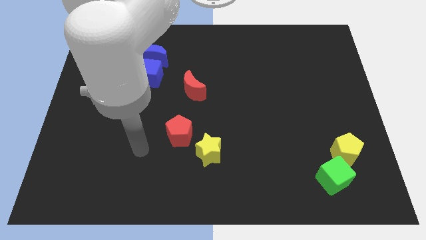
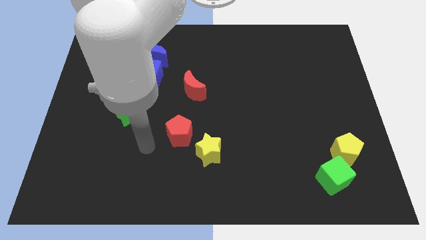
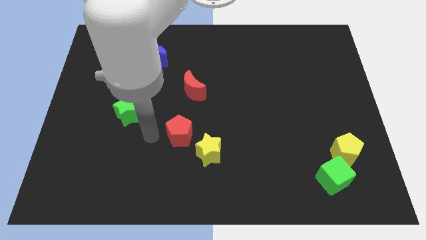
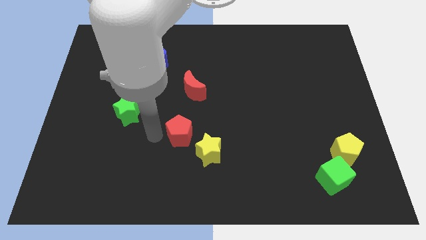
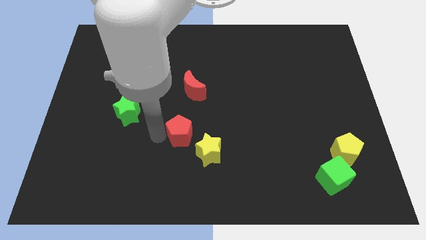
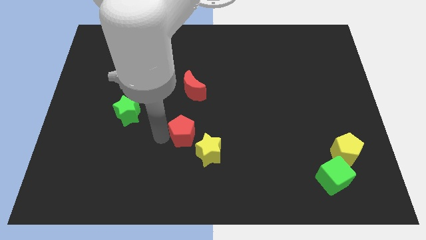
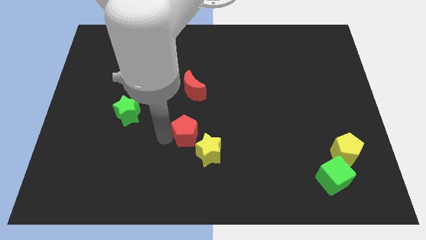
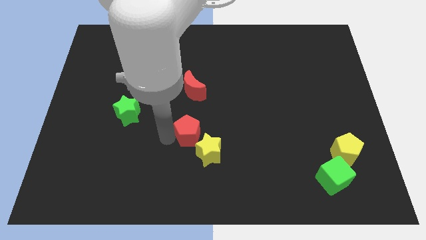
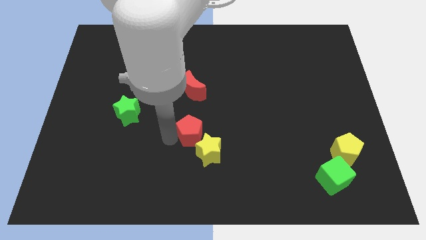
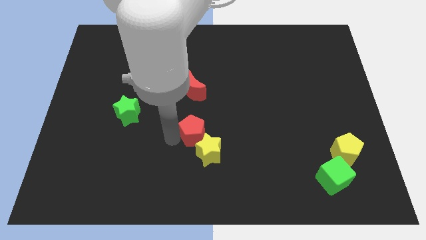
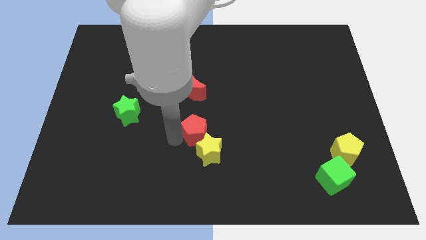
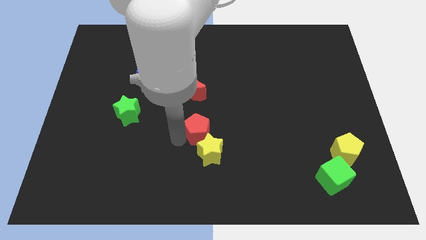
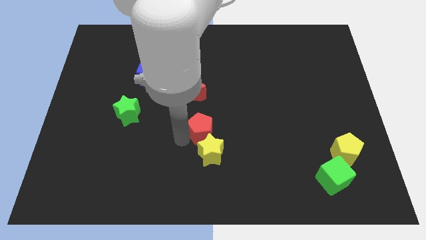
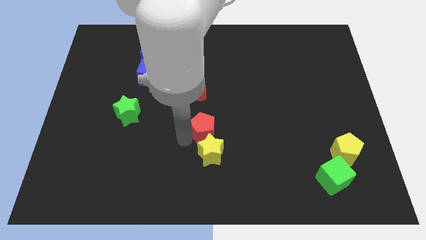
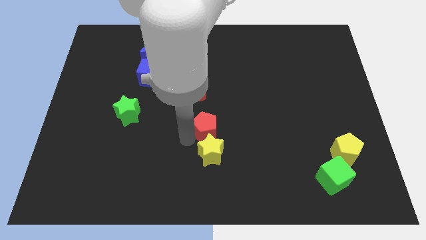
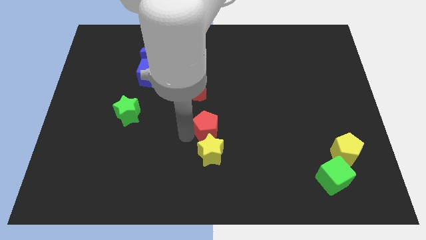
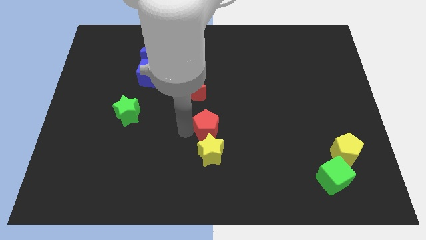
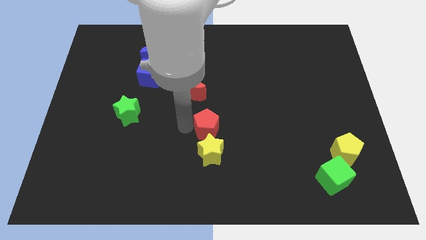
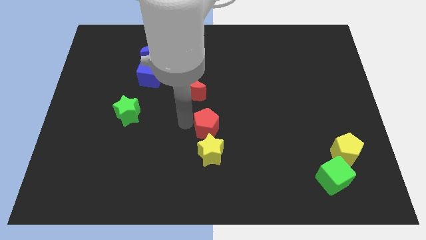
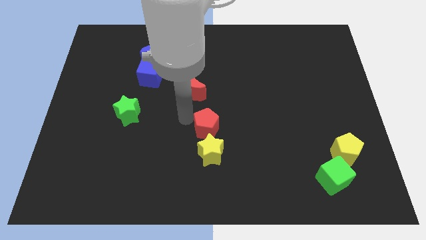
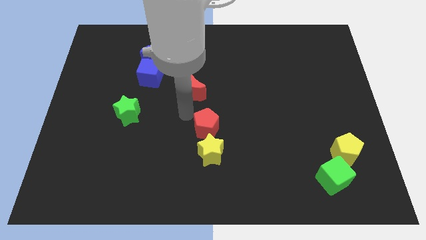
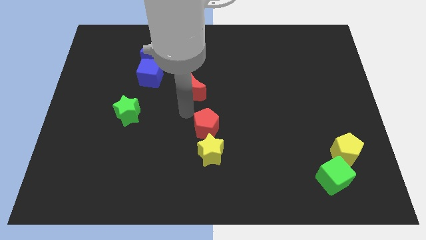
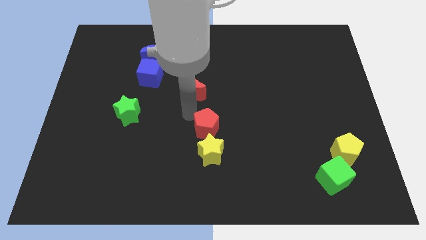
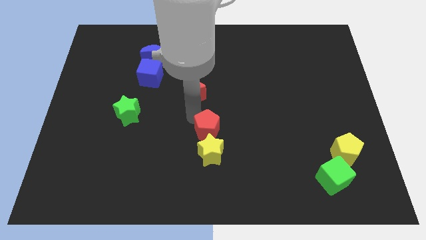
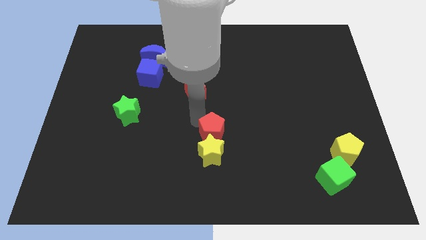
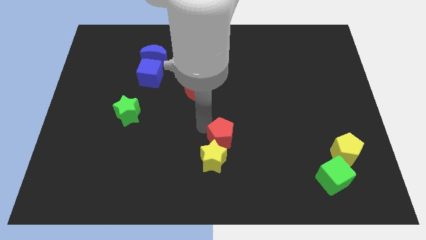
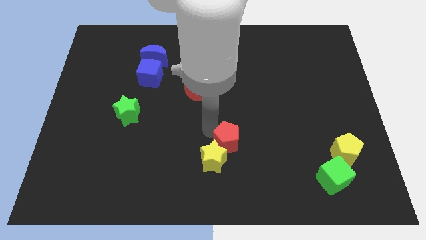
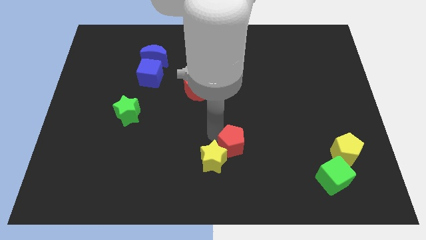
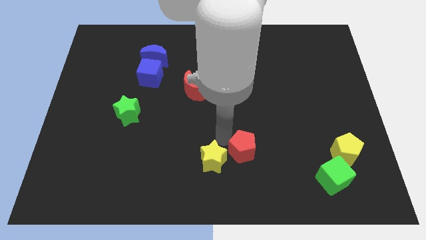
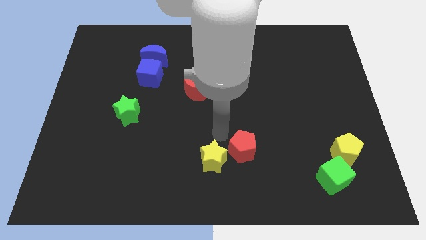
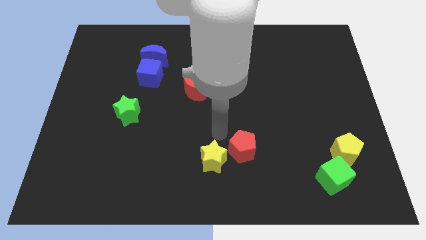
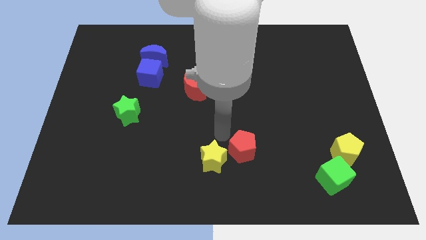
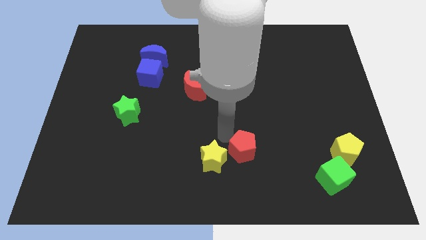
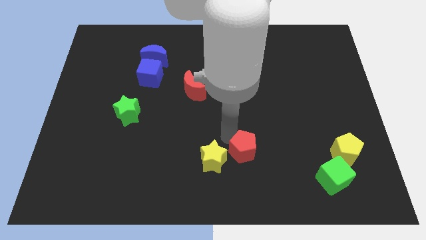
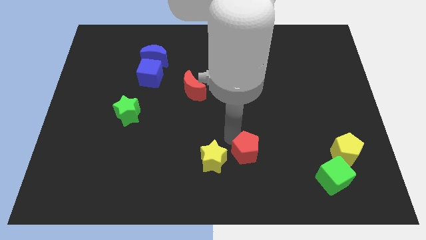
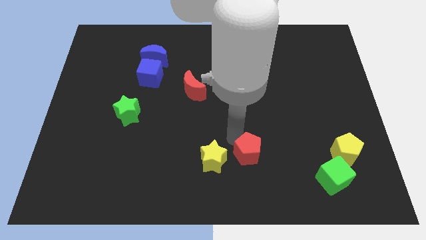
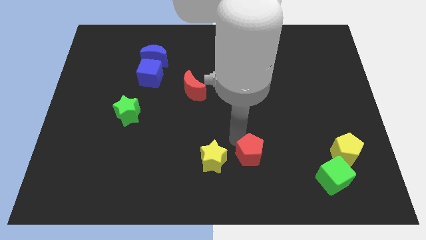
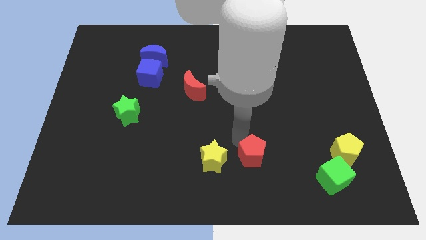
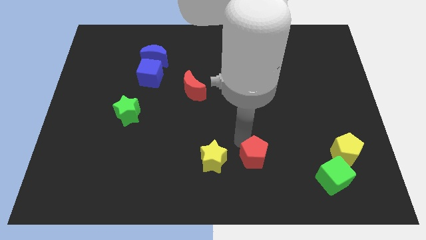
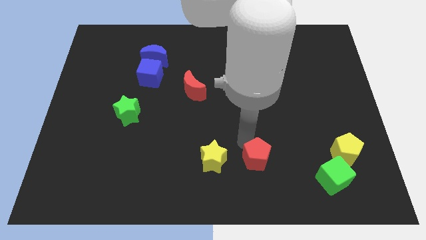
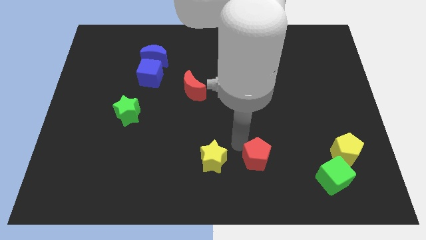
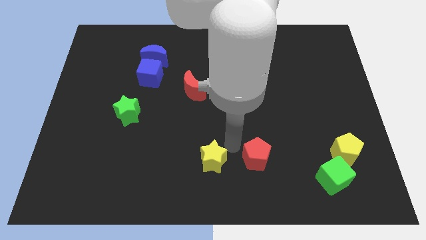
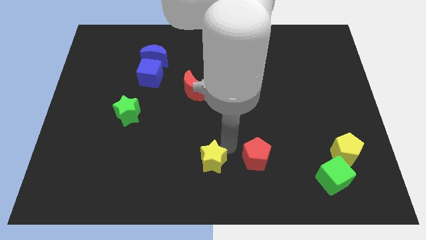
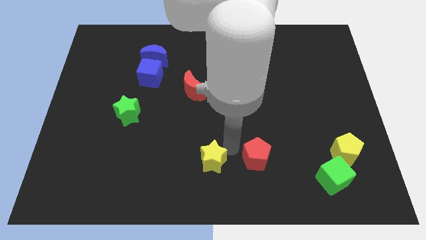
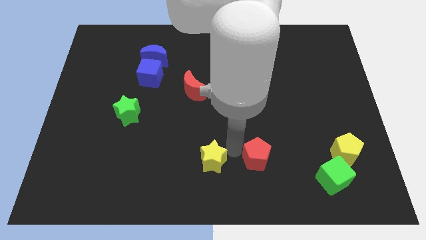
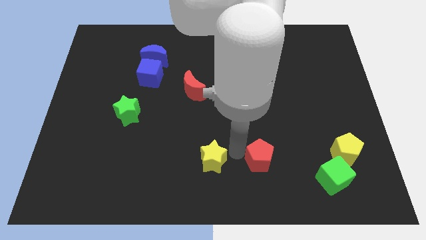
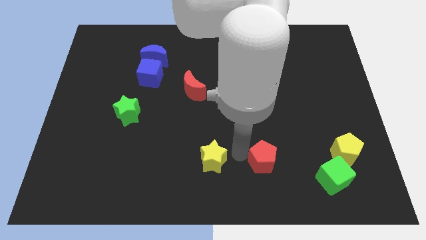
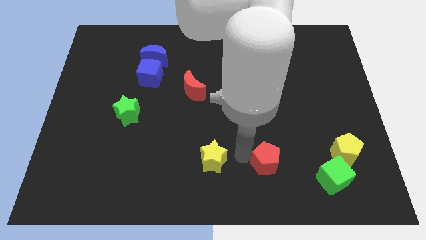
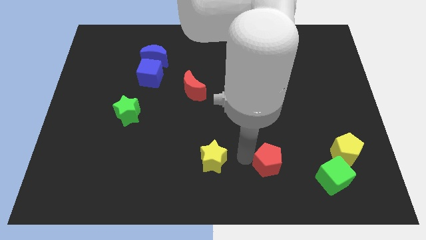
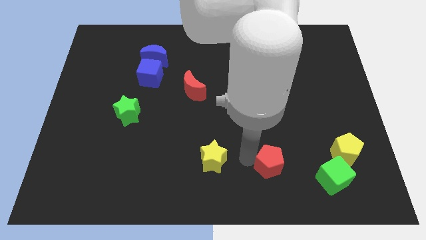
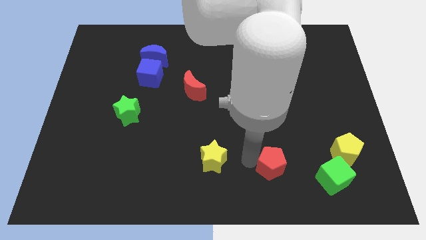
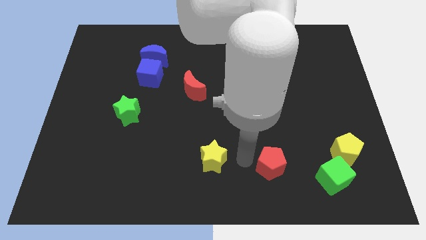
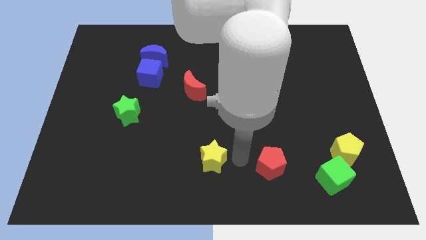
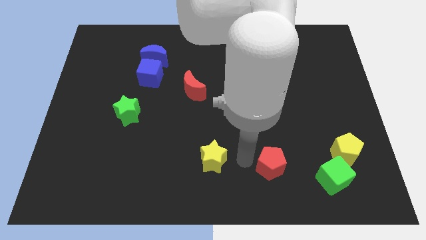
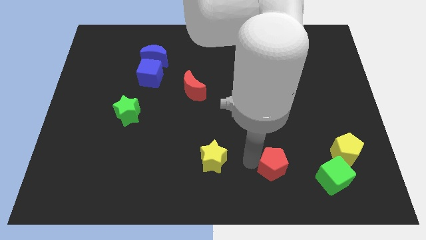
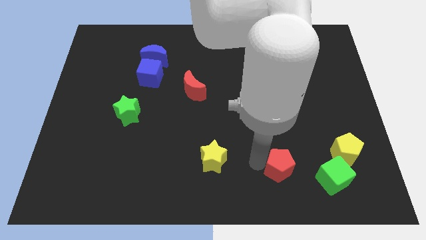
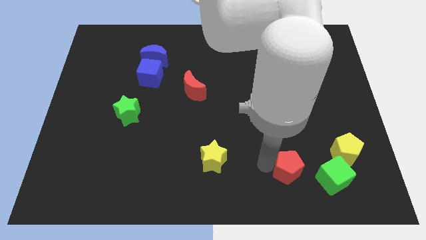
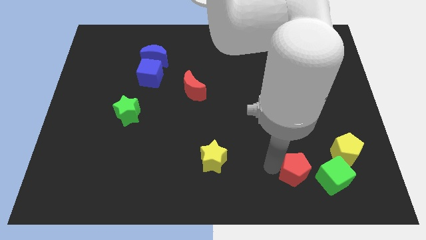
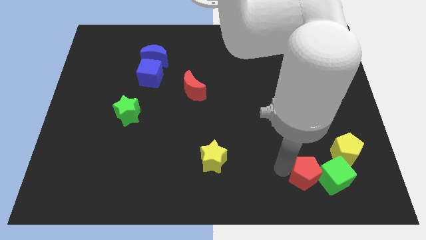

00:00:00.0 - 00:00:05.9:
move the red pentagon to the green cube

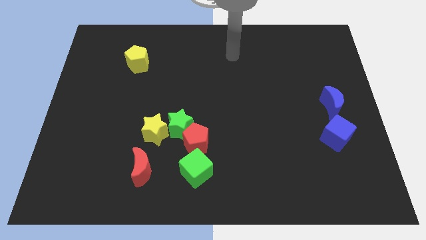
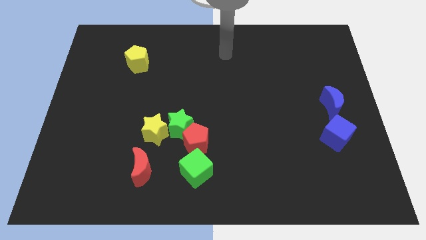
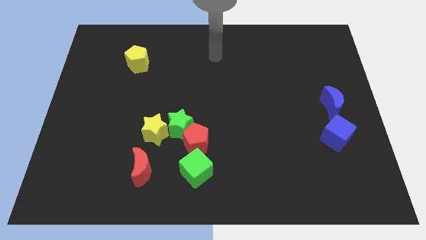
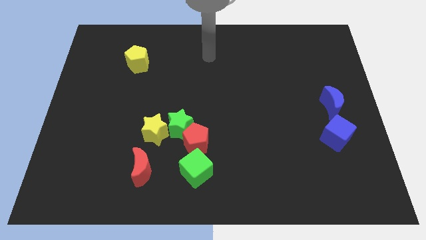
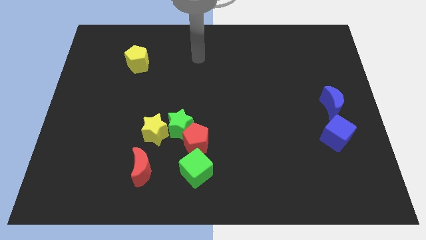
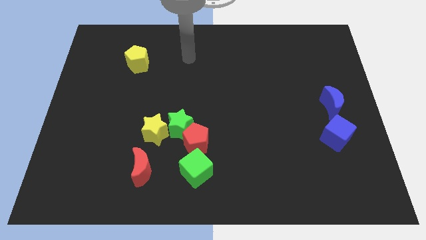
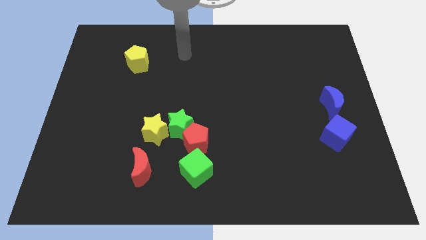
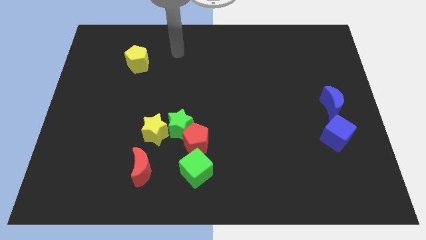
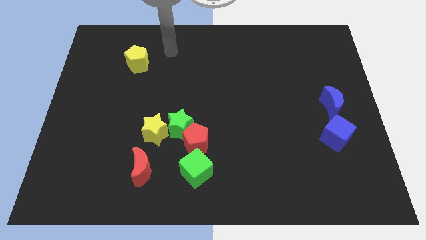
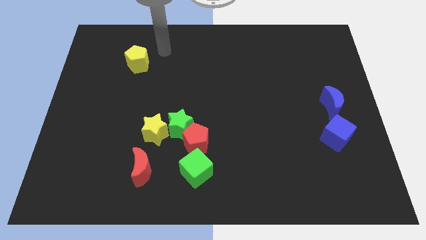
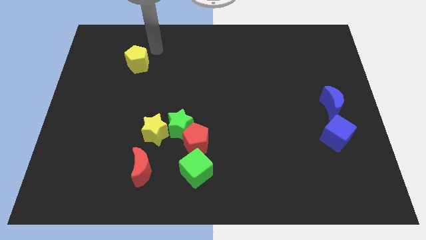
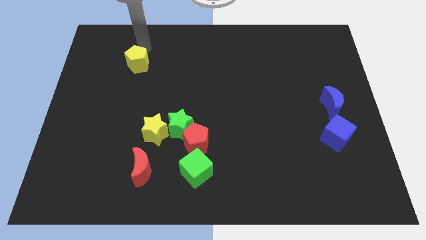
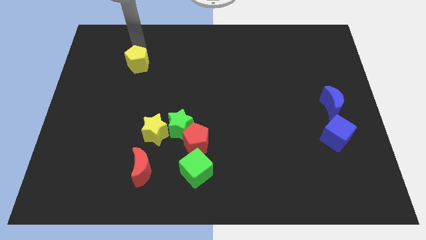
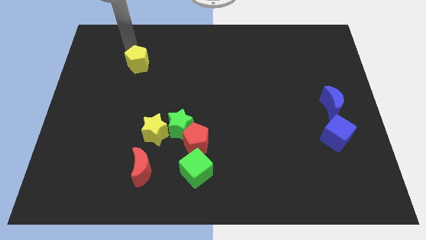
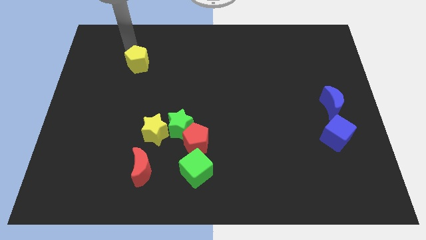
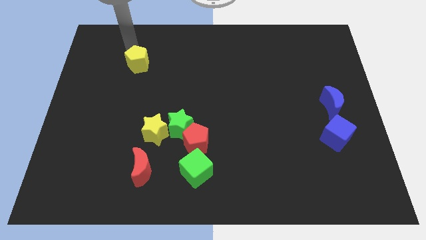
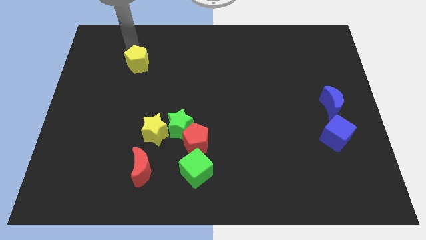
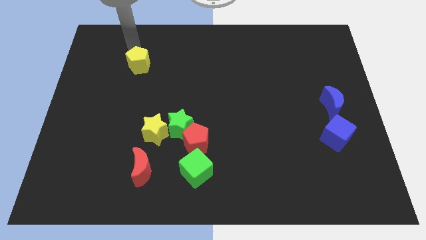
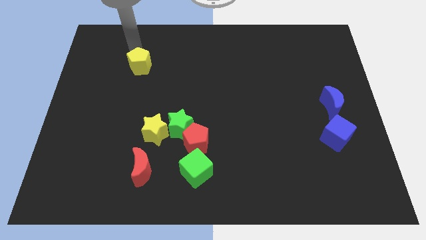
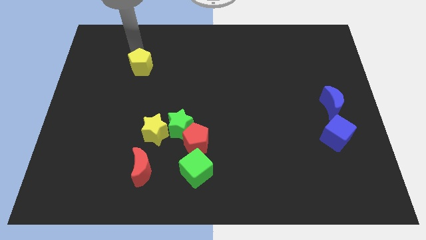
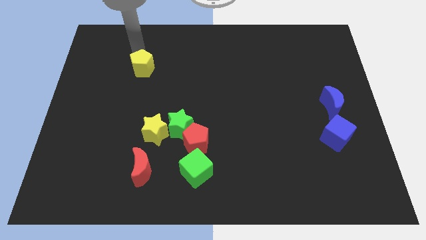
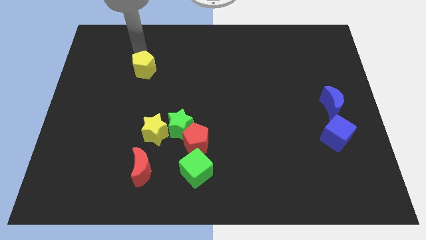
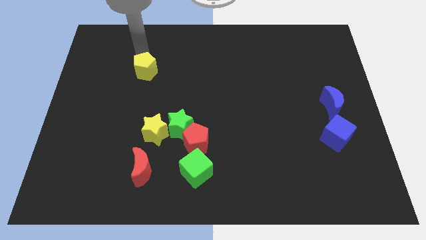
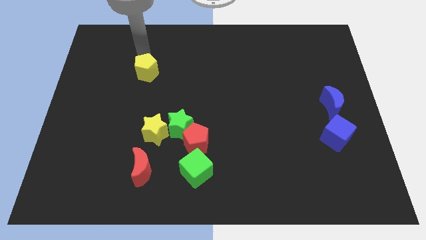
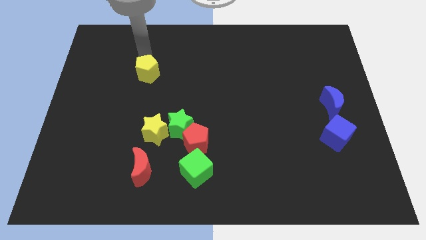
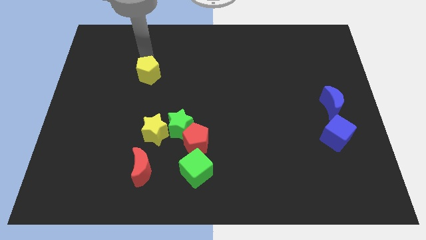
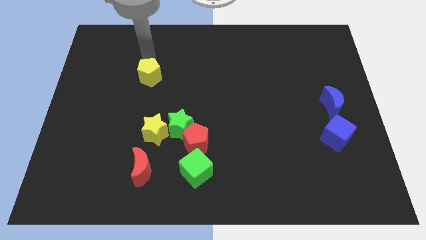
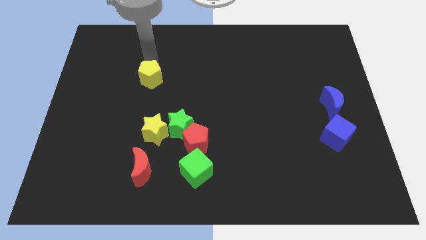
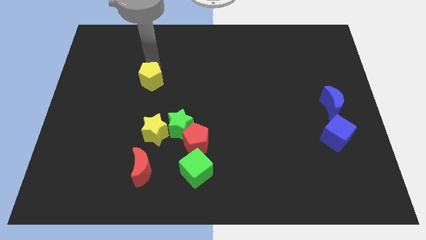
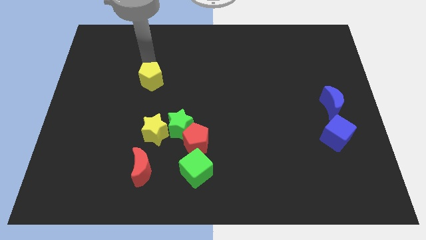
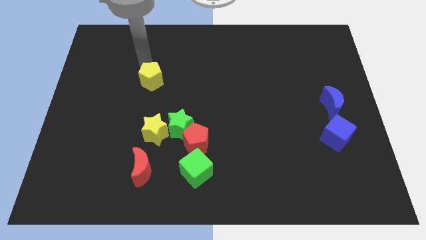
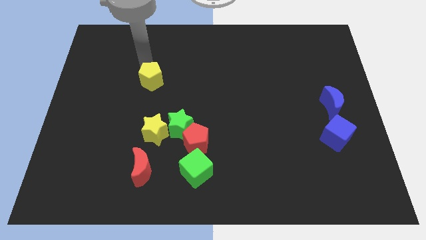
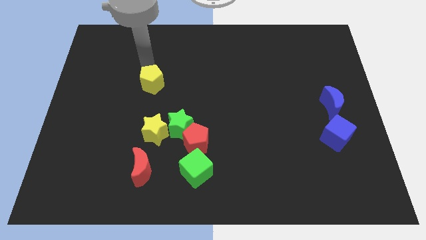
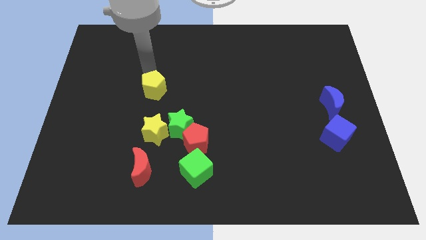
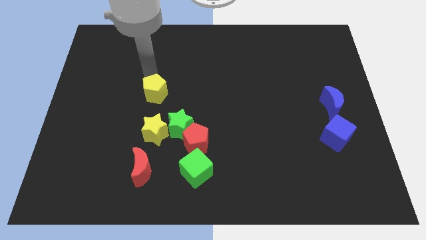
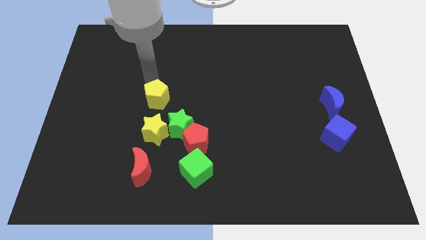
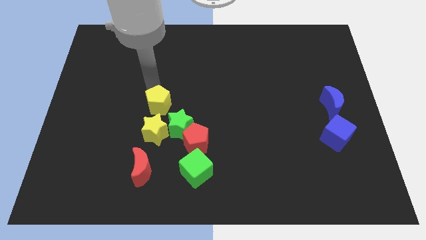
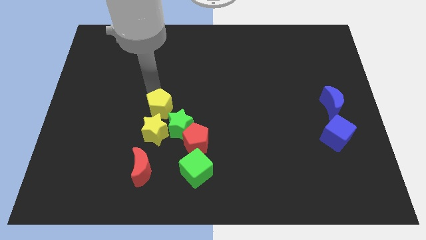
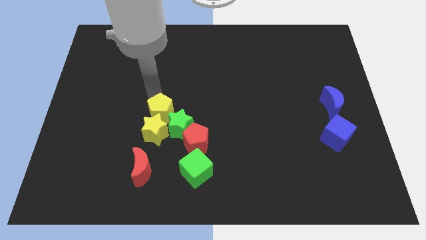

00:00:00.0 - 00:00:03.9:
move the yellow pentagon close to the green star
